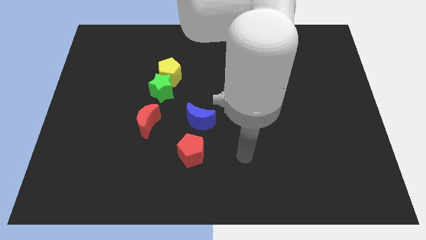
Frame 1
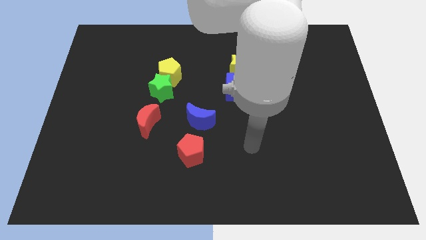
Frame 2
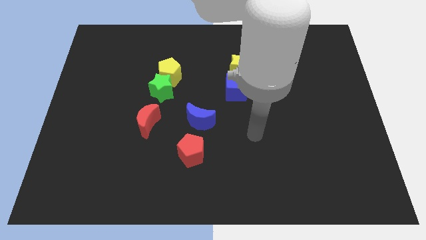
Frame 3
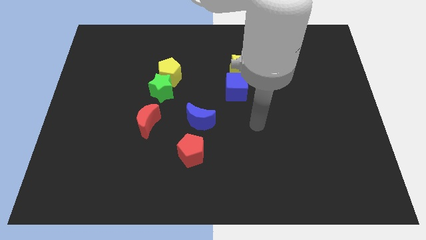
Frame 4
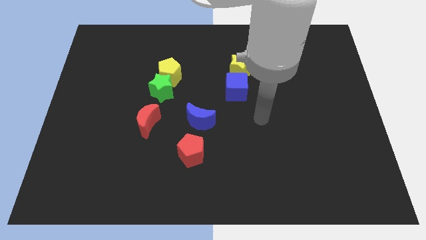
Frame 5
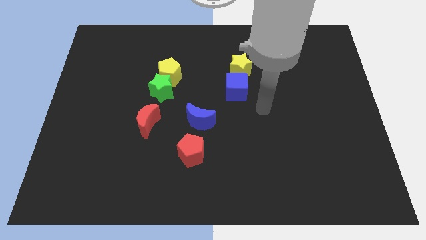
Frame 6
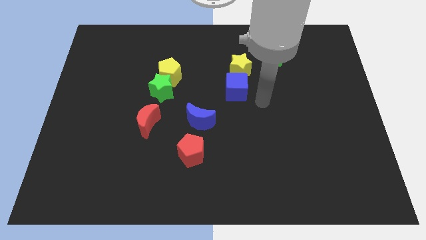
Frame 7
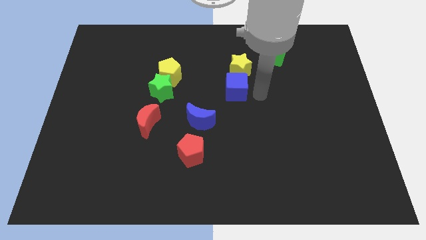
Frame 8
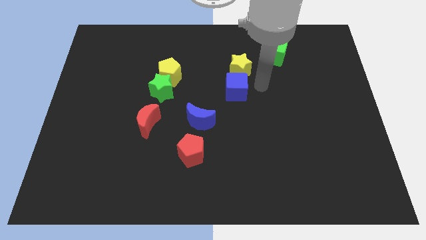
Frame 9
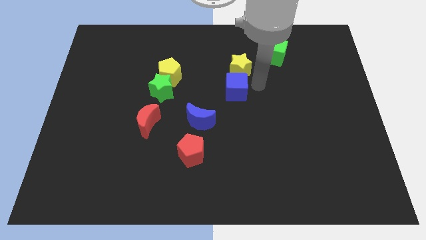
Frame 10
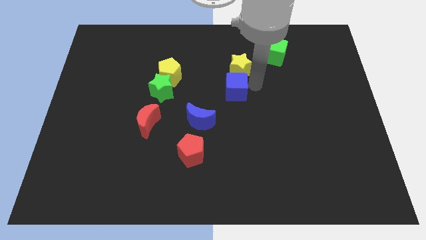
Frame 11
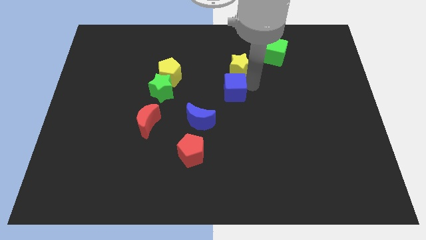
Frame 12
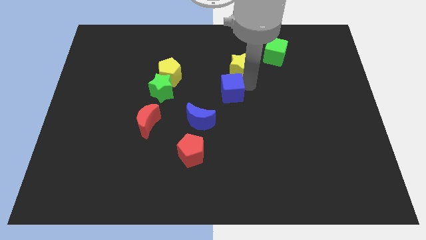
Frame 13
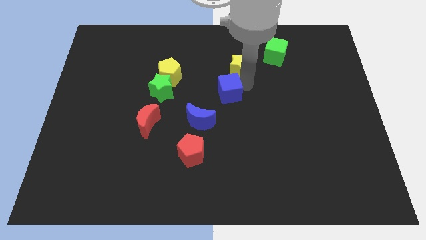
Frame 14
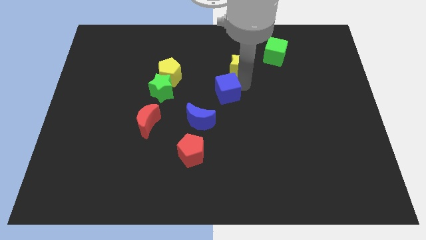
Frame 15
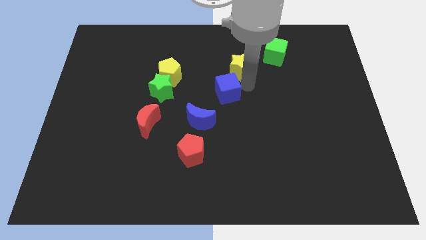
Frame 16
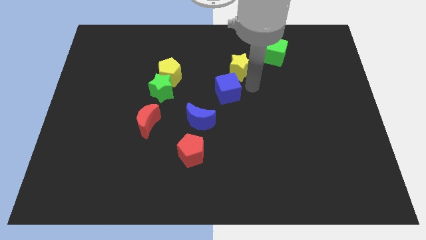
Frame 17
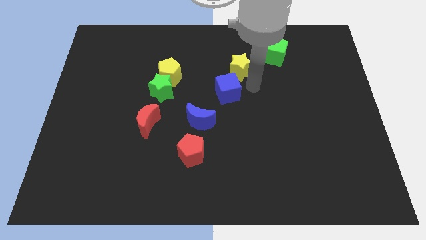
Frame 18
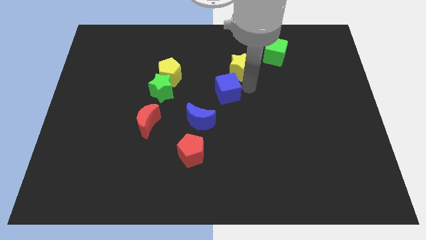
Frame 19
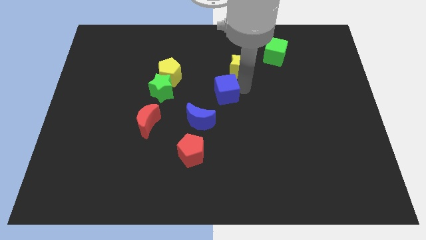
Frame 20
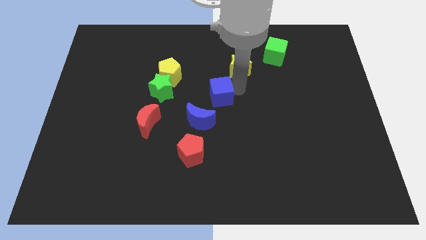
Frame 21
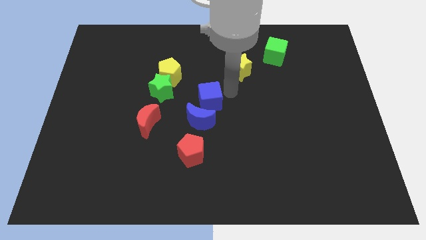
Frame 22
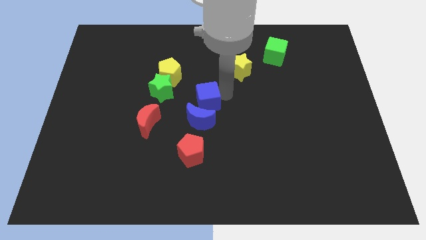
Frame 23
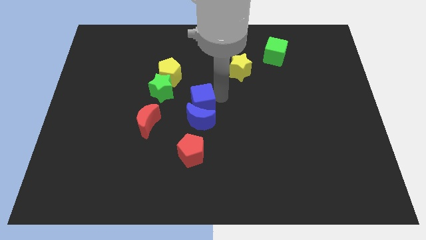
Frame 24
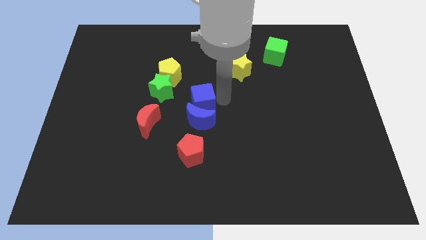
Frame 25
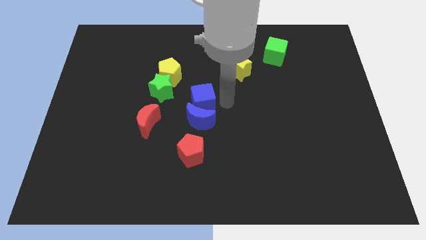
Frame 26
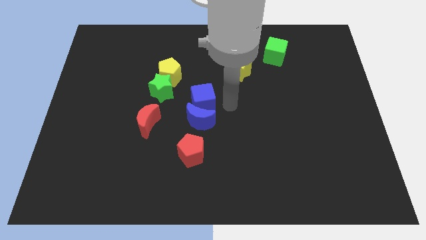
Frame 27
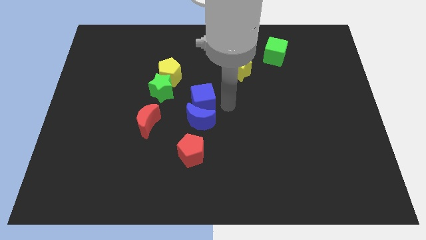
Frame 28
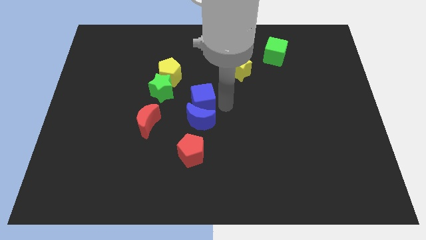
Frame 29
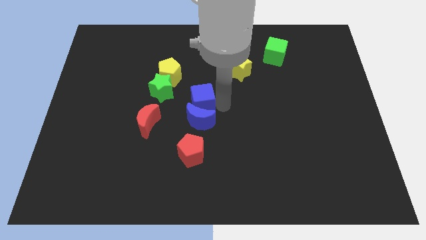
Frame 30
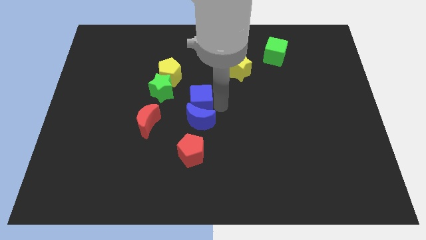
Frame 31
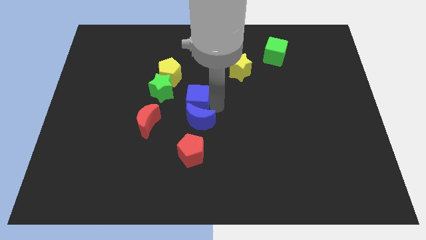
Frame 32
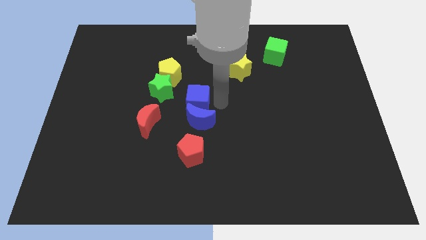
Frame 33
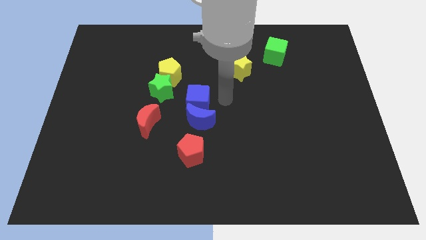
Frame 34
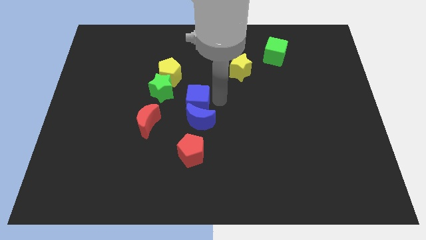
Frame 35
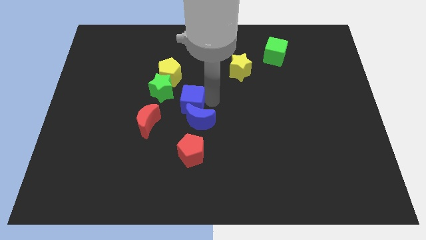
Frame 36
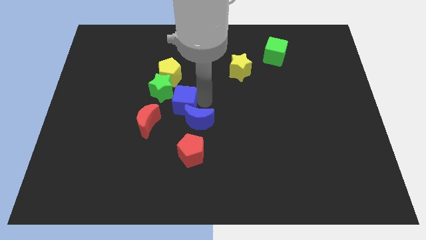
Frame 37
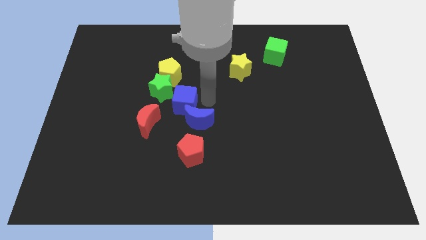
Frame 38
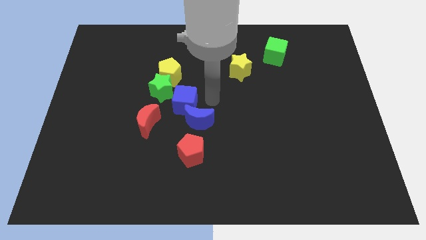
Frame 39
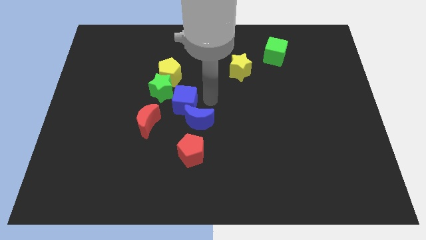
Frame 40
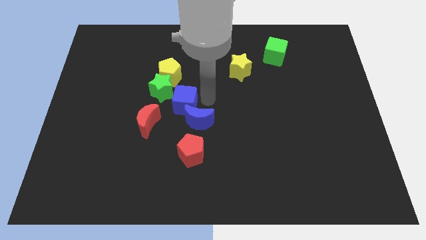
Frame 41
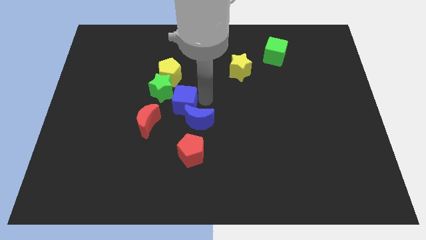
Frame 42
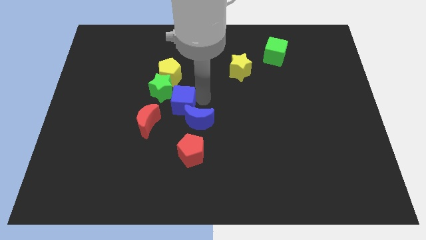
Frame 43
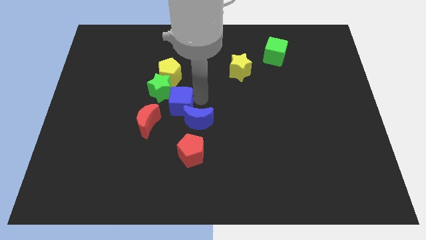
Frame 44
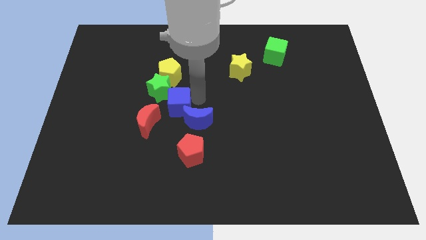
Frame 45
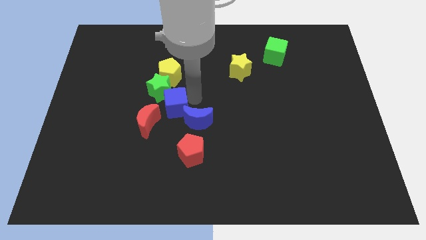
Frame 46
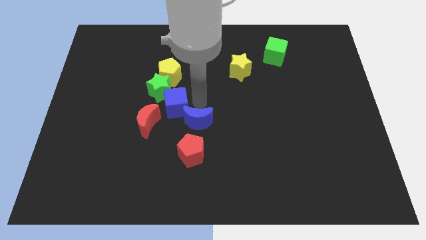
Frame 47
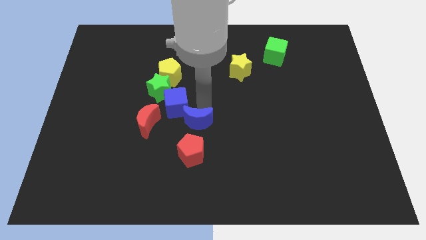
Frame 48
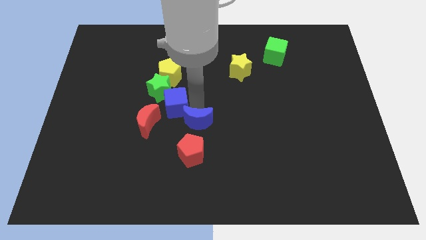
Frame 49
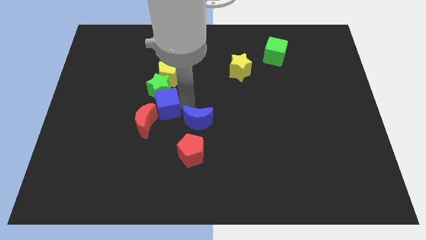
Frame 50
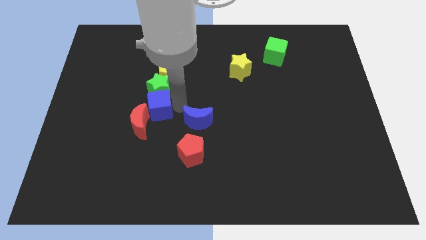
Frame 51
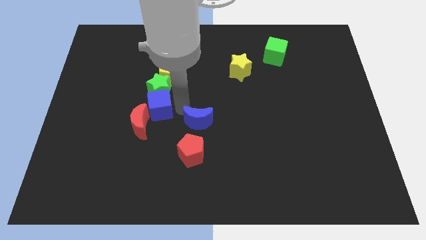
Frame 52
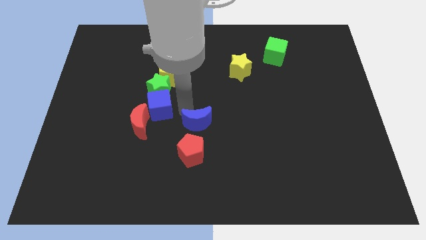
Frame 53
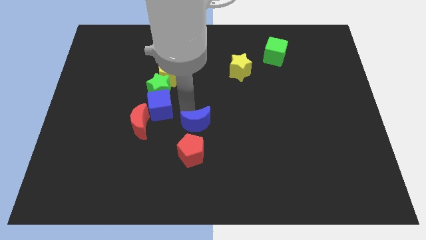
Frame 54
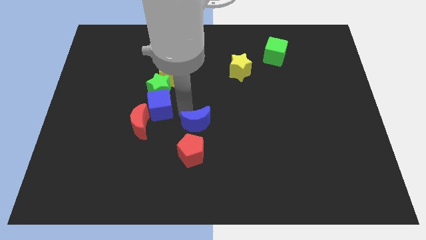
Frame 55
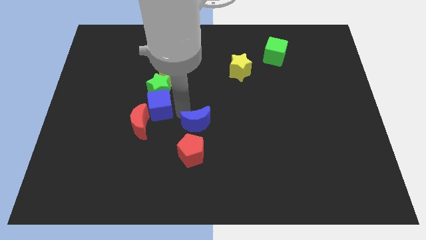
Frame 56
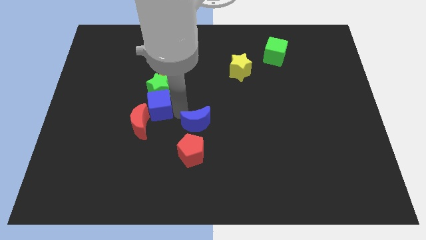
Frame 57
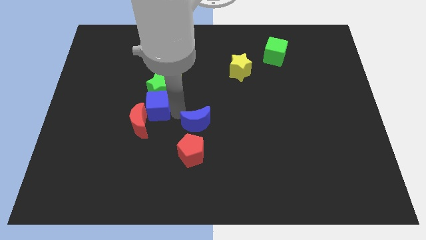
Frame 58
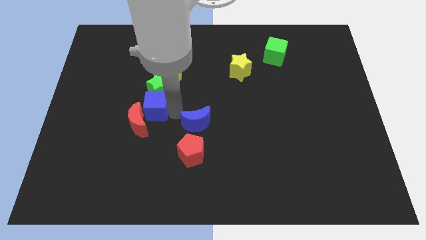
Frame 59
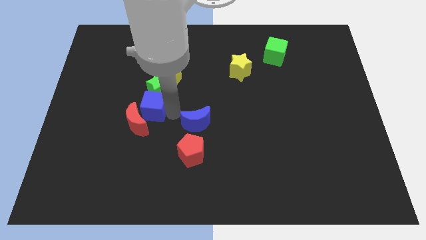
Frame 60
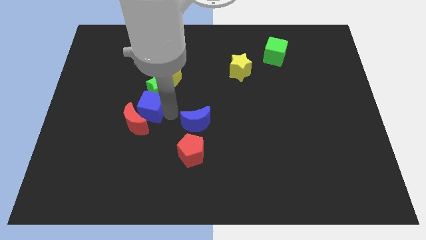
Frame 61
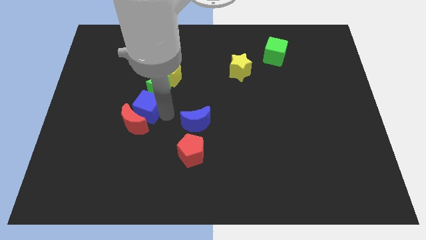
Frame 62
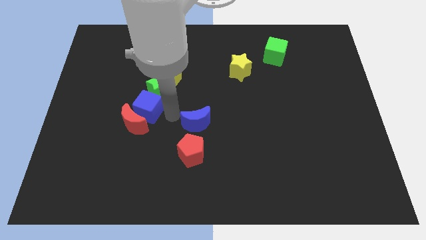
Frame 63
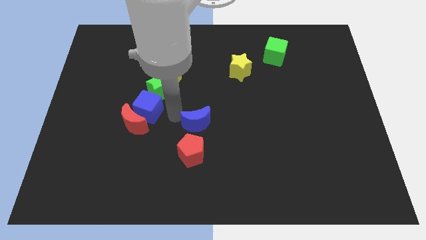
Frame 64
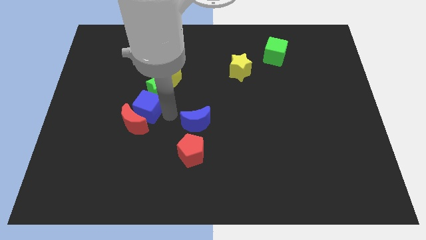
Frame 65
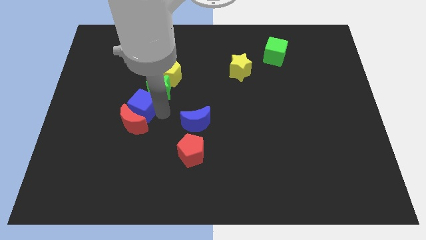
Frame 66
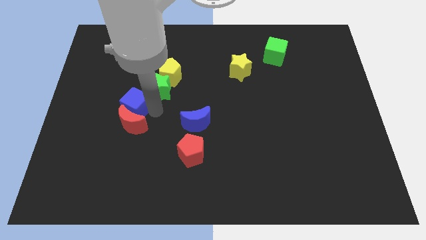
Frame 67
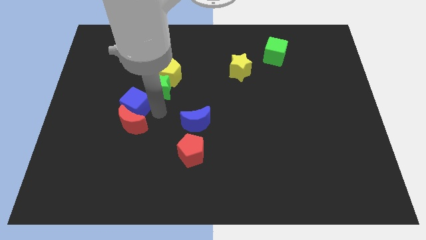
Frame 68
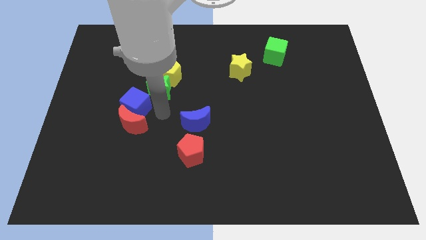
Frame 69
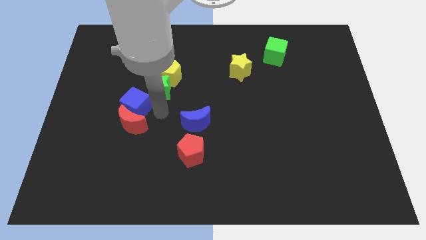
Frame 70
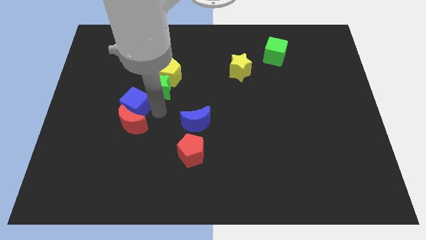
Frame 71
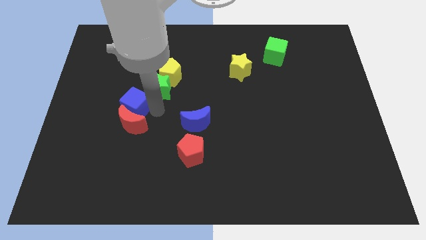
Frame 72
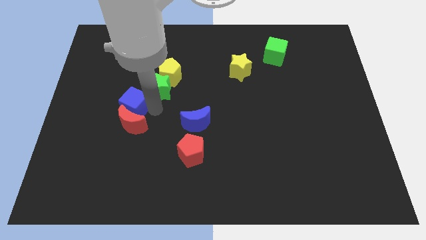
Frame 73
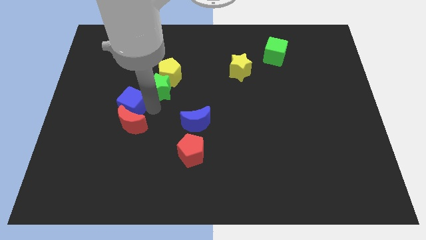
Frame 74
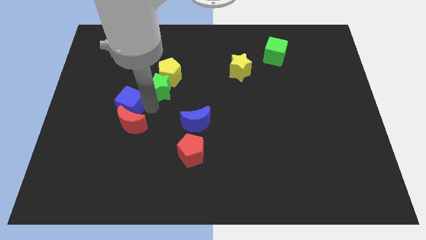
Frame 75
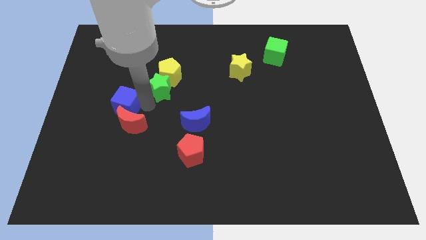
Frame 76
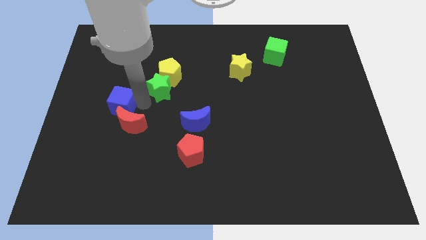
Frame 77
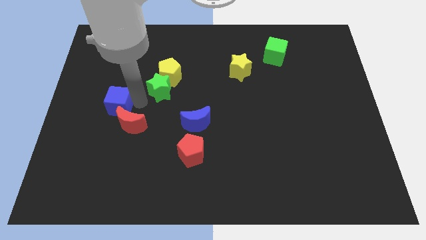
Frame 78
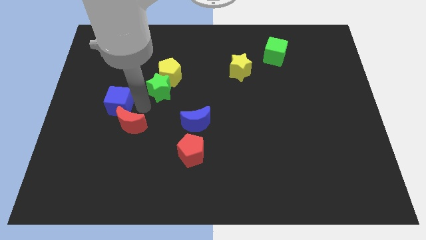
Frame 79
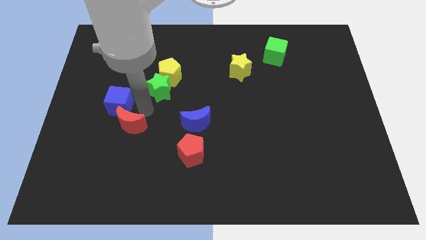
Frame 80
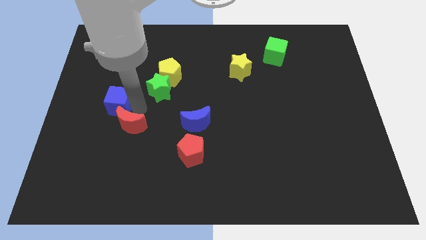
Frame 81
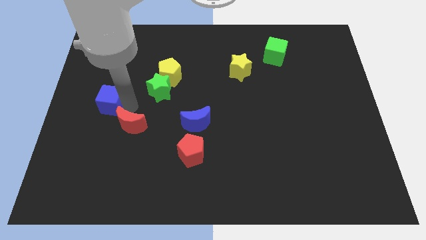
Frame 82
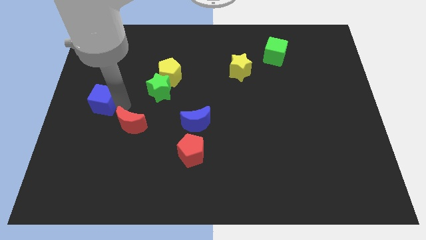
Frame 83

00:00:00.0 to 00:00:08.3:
move the blue cube to the left side

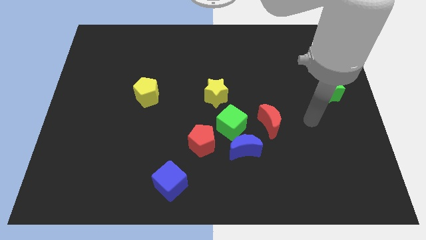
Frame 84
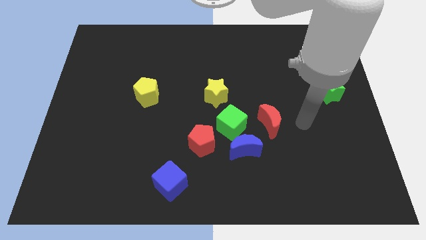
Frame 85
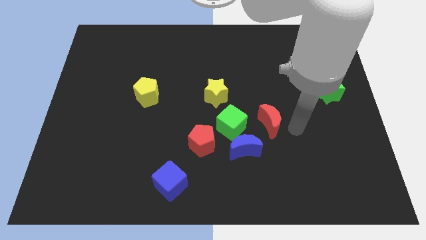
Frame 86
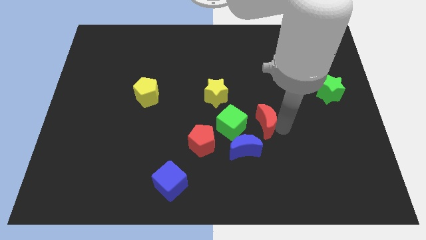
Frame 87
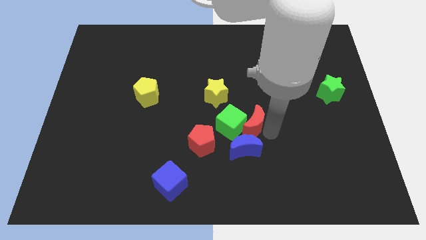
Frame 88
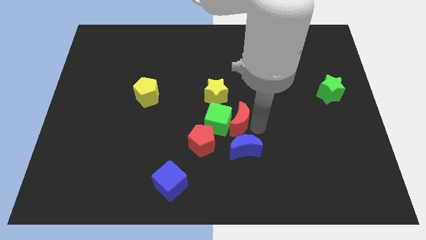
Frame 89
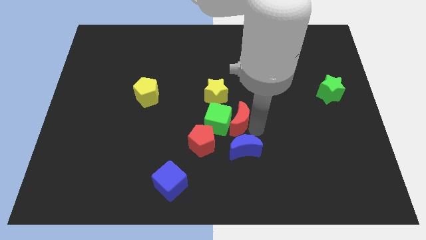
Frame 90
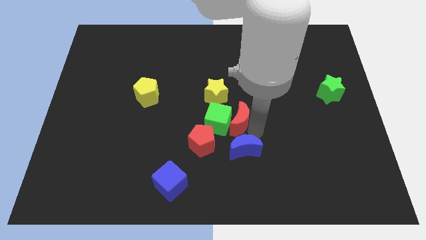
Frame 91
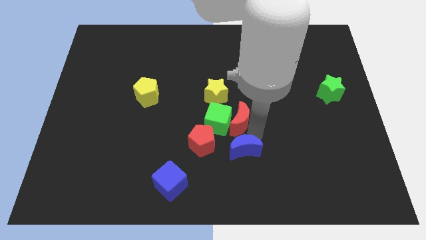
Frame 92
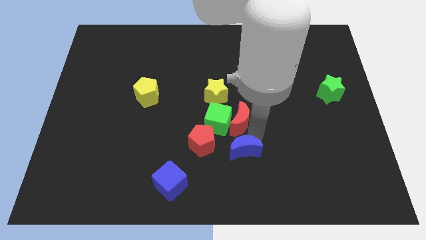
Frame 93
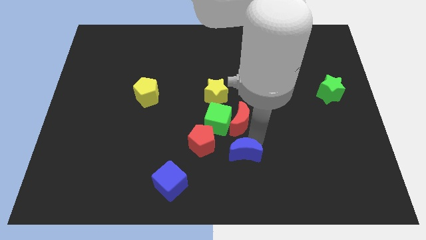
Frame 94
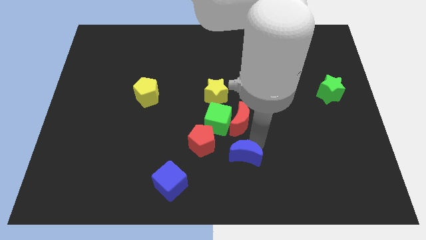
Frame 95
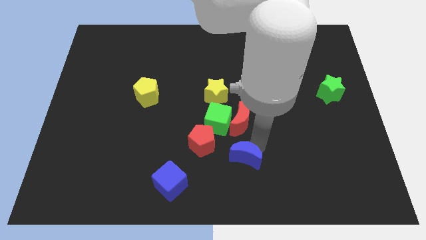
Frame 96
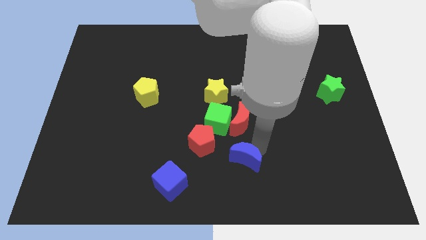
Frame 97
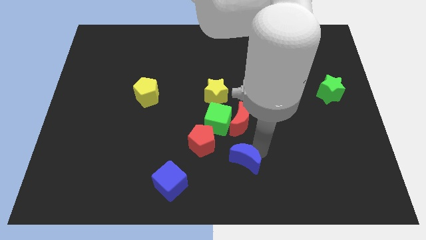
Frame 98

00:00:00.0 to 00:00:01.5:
slide the blue moon to the bottom
